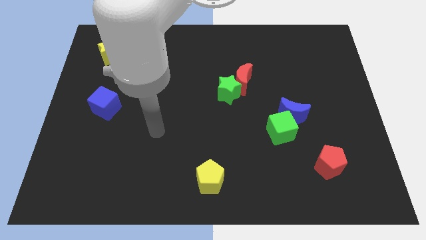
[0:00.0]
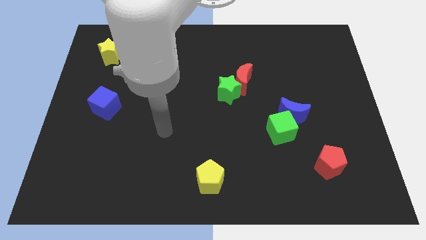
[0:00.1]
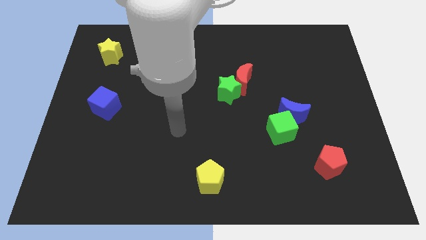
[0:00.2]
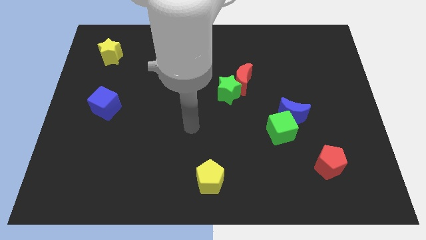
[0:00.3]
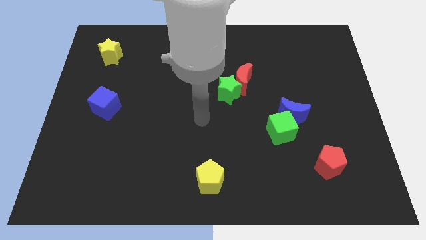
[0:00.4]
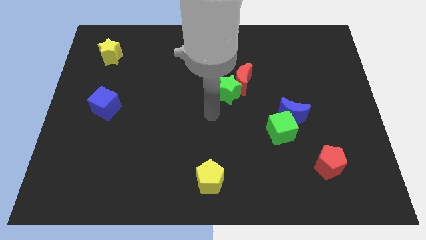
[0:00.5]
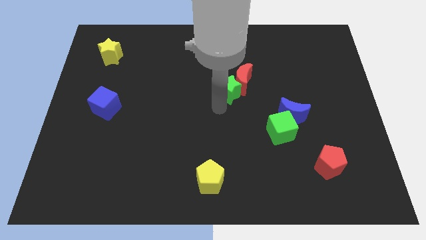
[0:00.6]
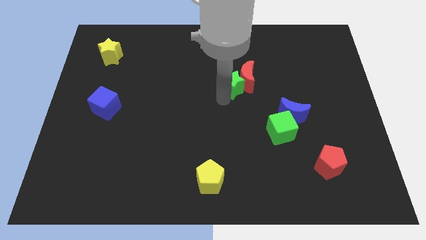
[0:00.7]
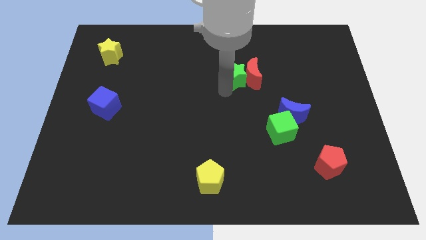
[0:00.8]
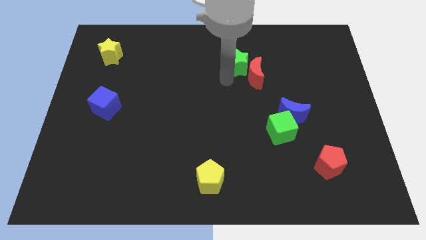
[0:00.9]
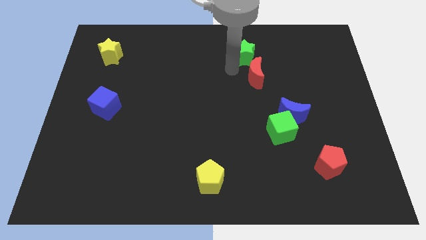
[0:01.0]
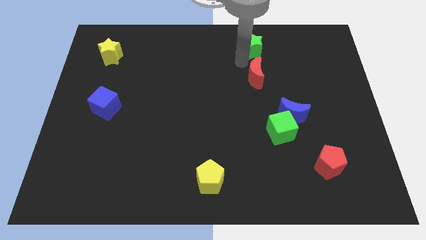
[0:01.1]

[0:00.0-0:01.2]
pull the red moon apart from the green star

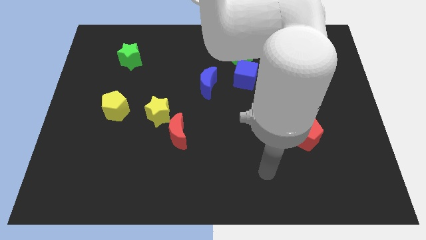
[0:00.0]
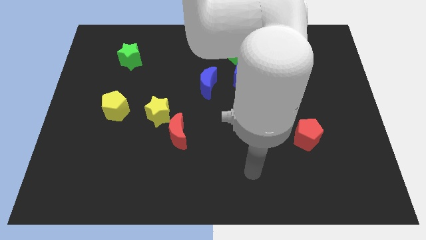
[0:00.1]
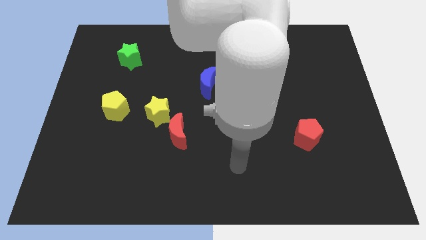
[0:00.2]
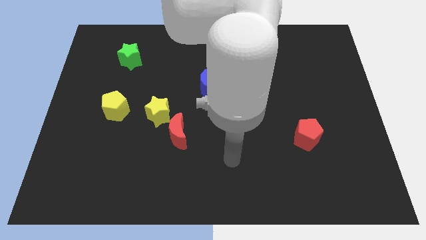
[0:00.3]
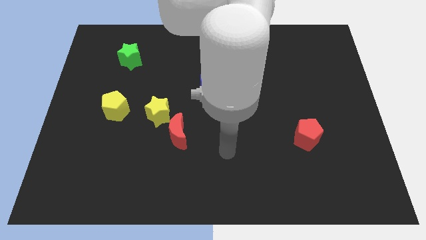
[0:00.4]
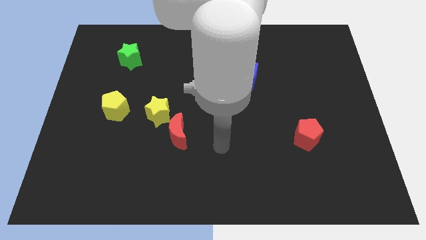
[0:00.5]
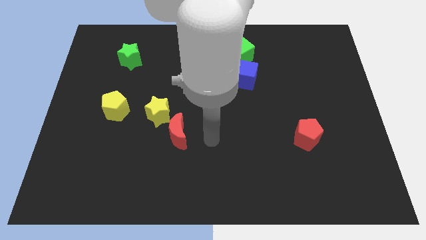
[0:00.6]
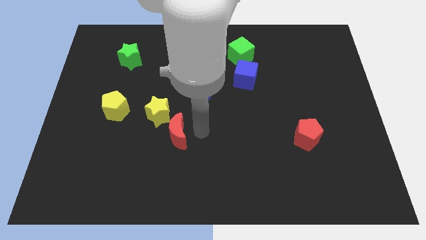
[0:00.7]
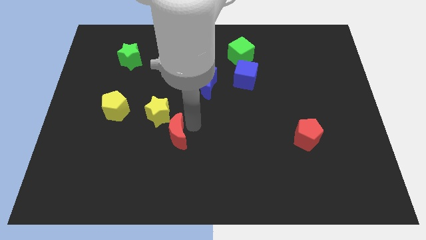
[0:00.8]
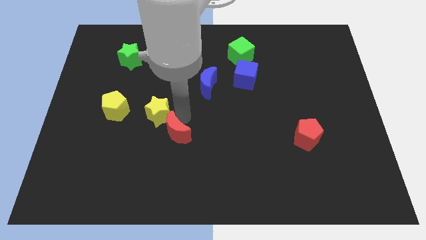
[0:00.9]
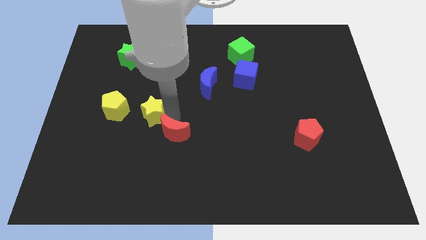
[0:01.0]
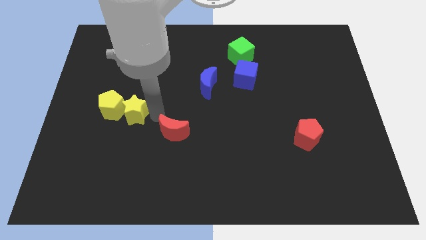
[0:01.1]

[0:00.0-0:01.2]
move the red moon away from the yellow star

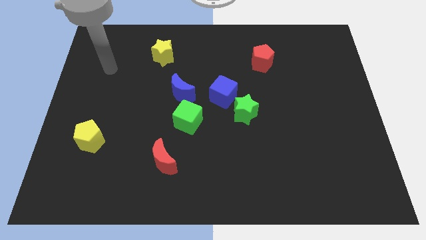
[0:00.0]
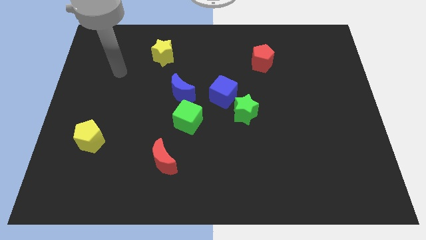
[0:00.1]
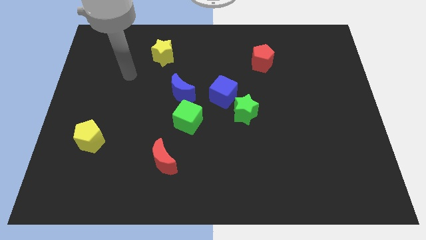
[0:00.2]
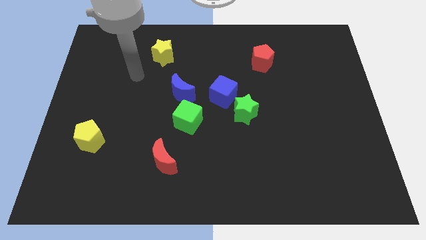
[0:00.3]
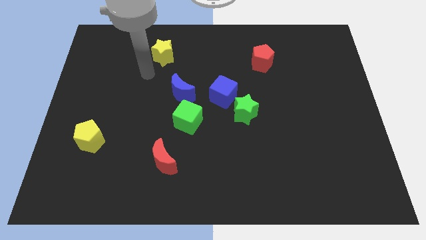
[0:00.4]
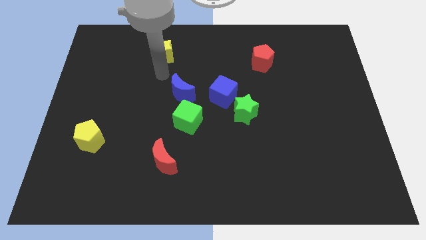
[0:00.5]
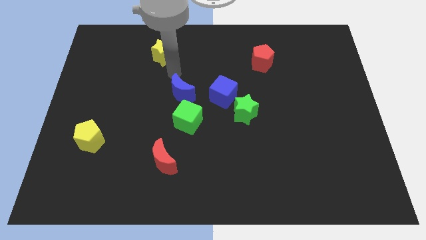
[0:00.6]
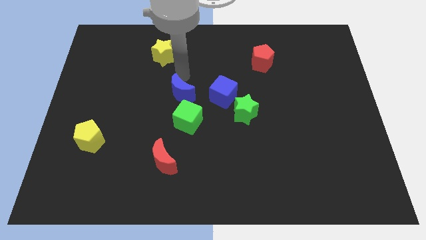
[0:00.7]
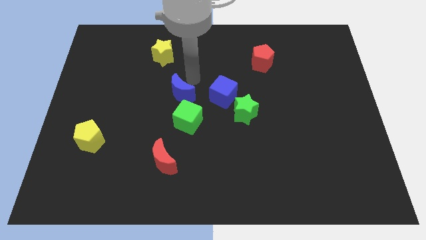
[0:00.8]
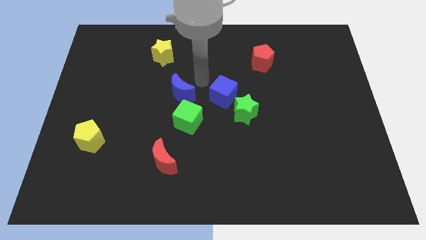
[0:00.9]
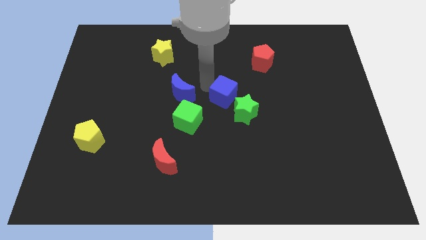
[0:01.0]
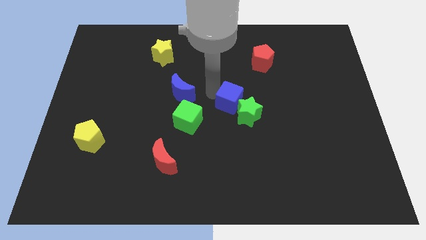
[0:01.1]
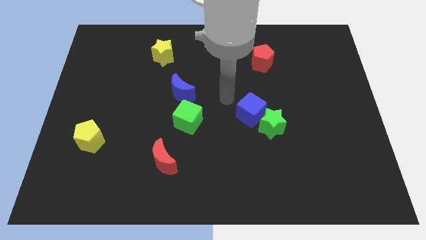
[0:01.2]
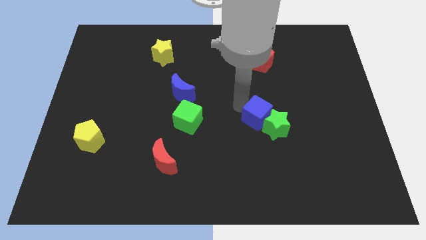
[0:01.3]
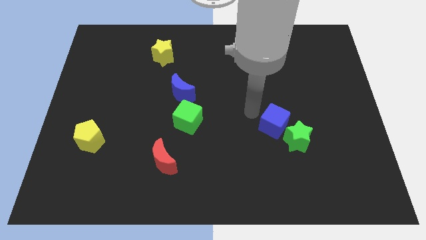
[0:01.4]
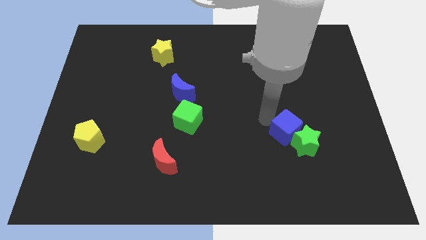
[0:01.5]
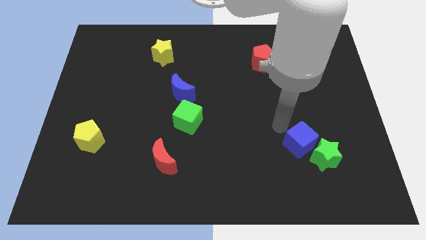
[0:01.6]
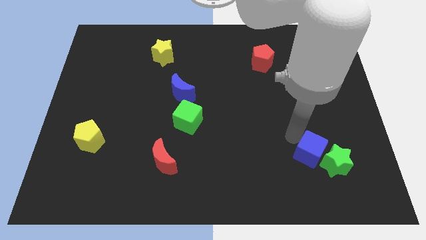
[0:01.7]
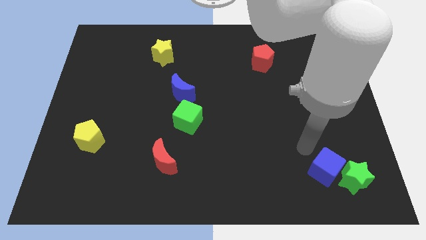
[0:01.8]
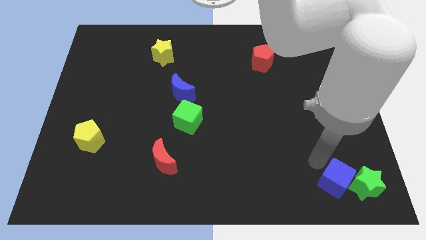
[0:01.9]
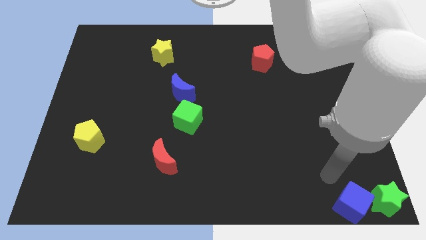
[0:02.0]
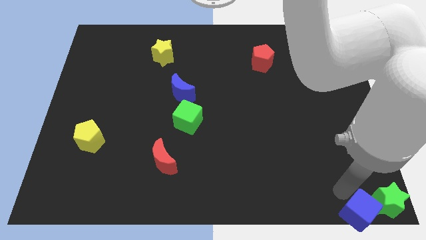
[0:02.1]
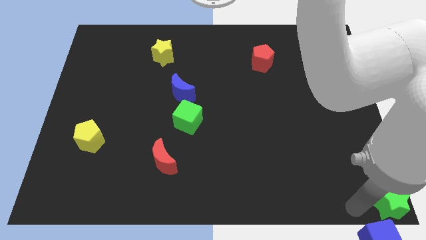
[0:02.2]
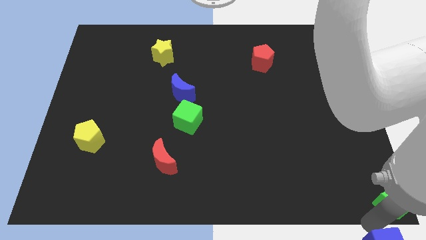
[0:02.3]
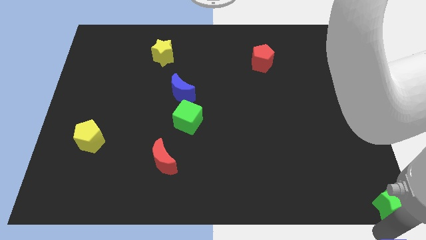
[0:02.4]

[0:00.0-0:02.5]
move the green star away from the blue cube

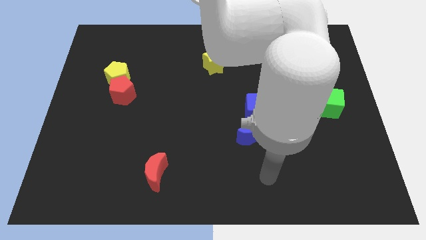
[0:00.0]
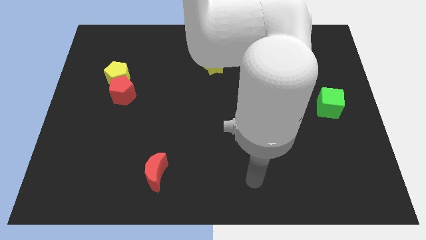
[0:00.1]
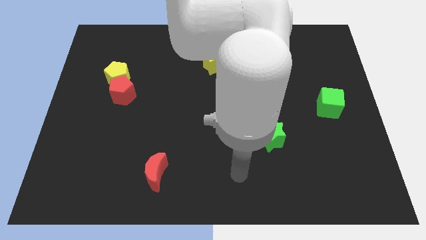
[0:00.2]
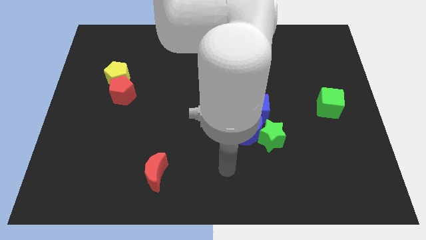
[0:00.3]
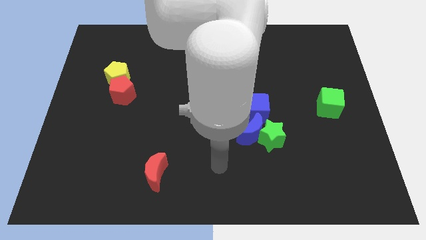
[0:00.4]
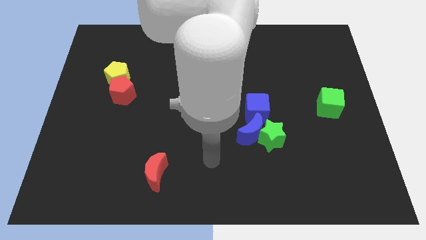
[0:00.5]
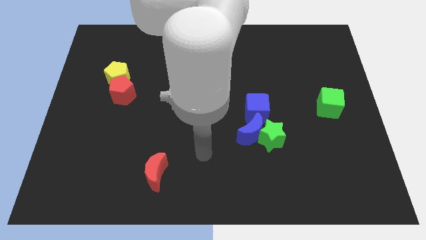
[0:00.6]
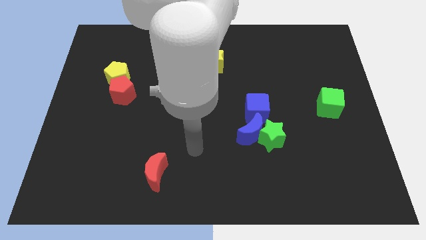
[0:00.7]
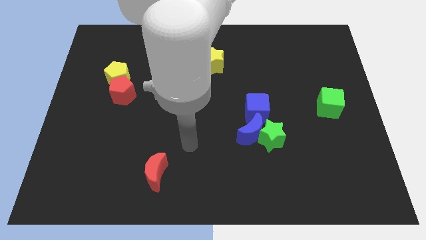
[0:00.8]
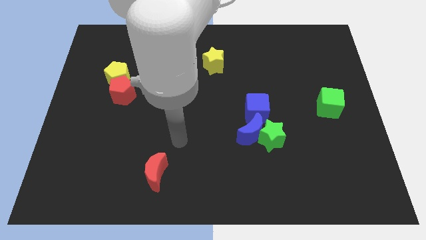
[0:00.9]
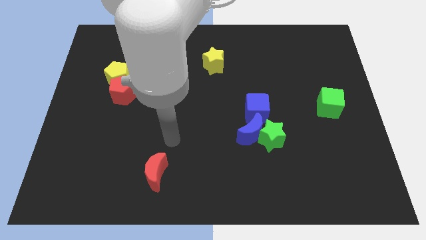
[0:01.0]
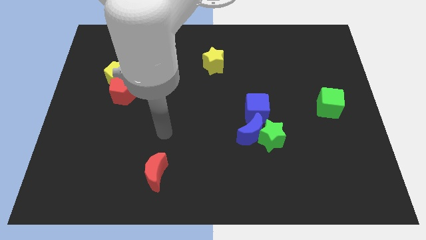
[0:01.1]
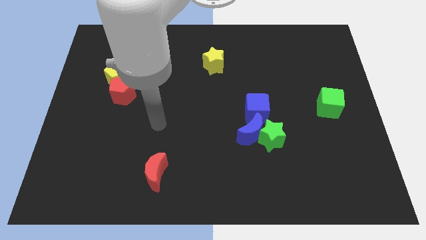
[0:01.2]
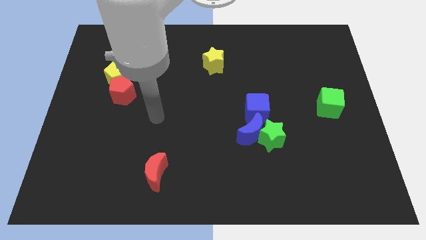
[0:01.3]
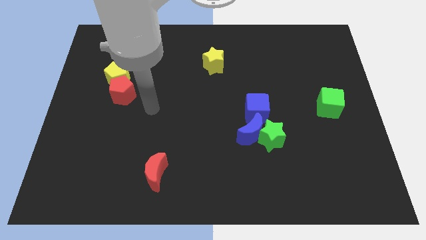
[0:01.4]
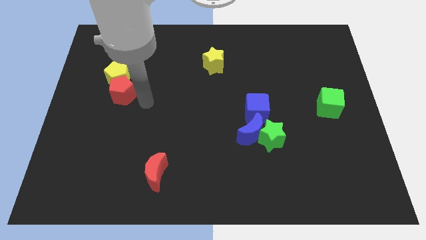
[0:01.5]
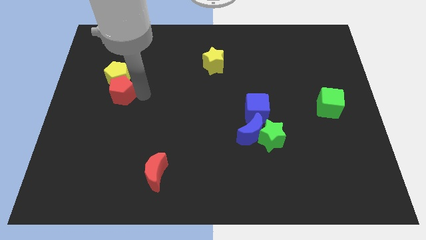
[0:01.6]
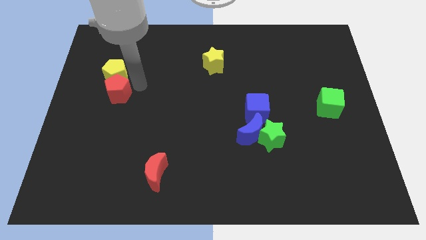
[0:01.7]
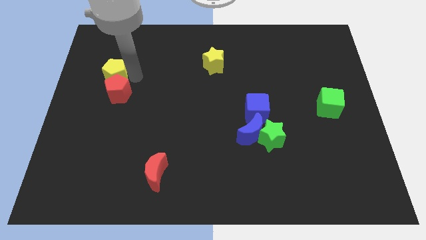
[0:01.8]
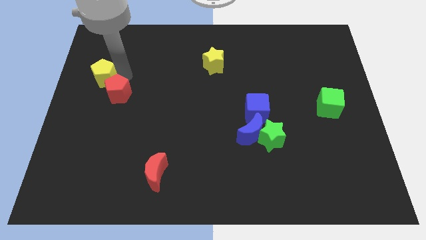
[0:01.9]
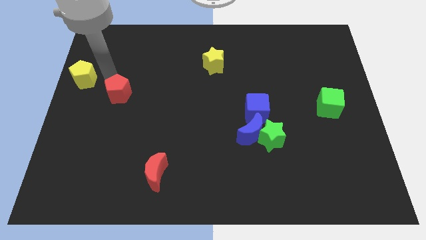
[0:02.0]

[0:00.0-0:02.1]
pull the red pentagon apart from the yellow pentagon

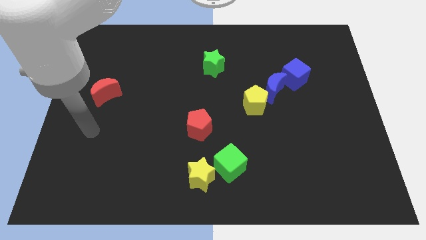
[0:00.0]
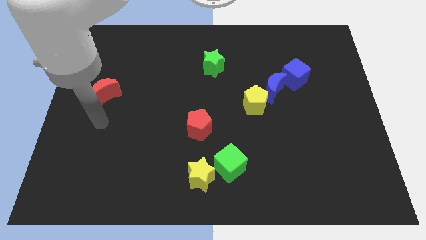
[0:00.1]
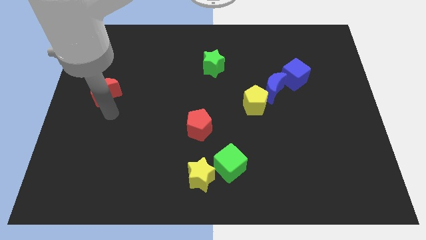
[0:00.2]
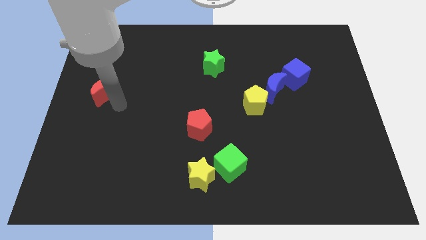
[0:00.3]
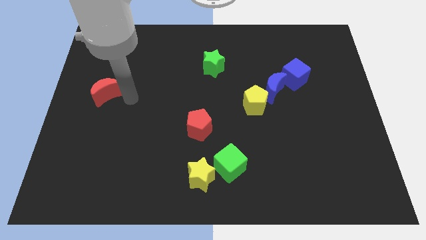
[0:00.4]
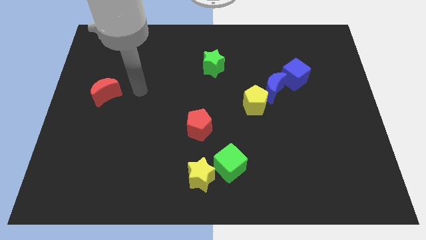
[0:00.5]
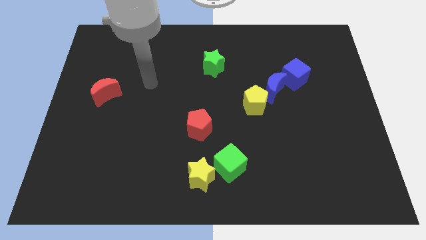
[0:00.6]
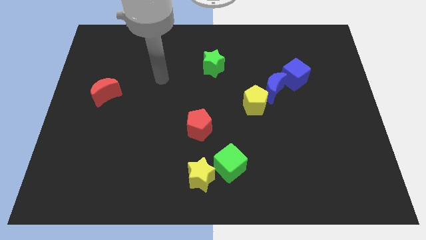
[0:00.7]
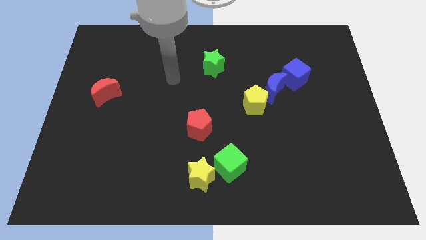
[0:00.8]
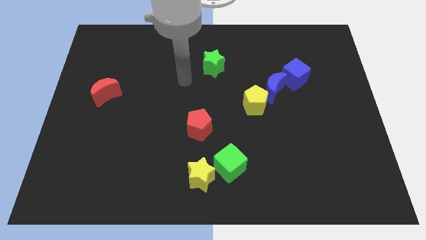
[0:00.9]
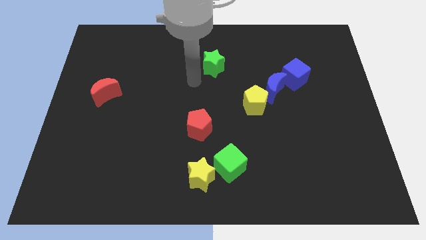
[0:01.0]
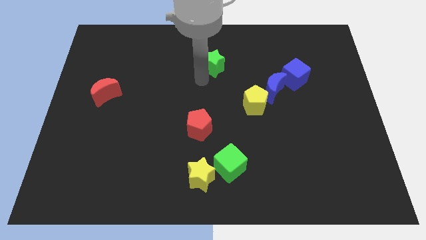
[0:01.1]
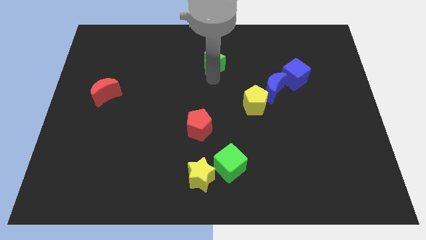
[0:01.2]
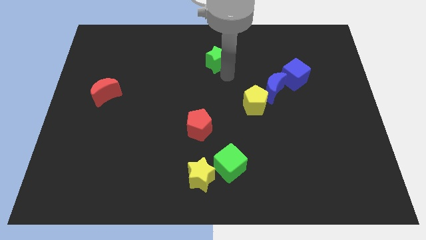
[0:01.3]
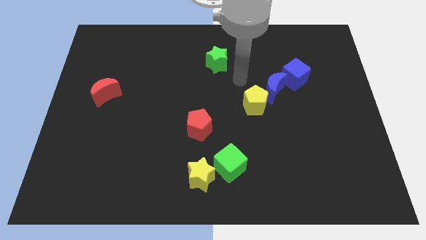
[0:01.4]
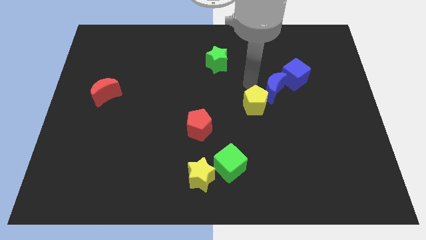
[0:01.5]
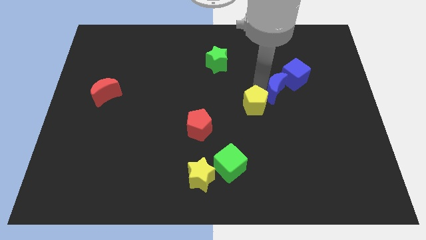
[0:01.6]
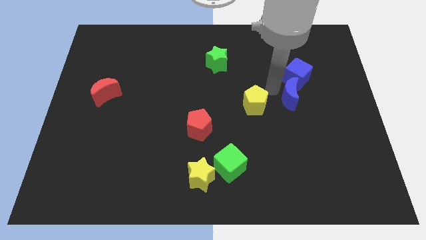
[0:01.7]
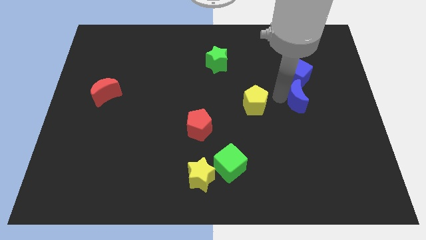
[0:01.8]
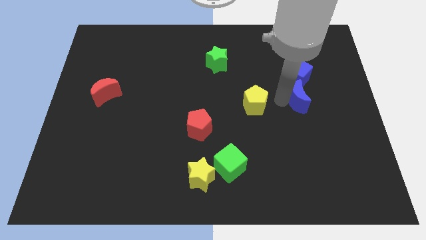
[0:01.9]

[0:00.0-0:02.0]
separate the yellow pentagon from the blue moon

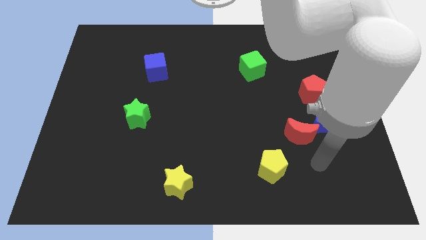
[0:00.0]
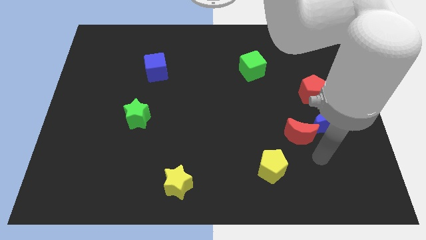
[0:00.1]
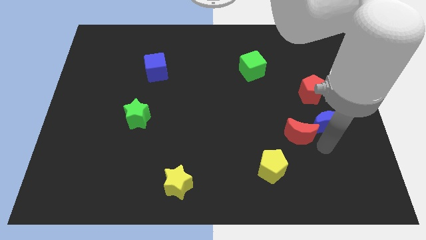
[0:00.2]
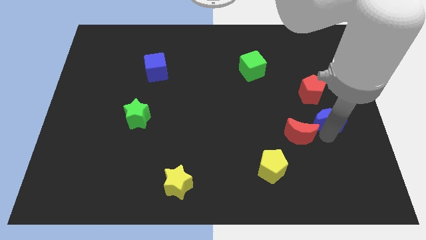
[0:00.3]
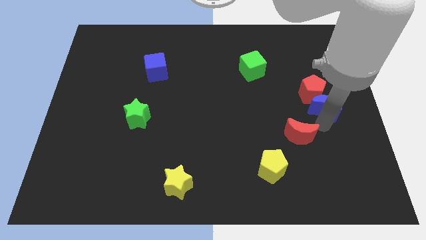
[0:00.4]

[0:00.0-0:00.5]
pull the red moon apart from the blue moon
